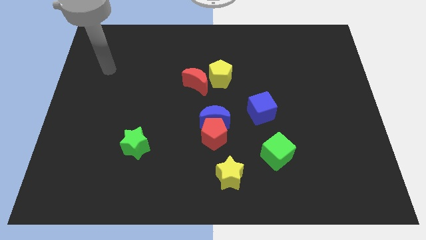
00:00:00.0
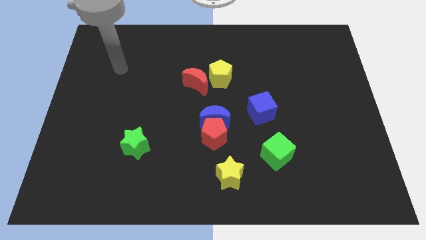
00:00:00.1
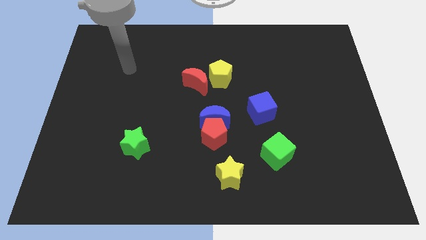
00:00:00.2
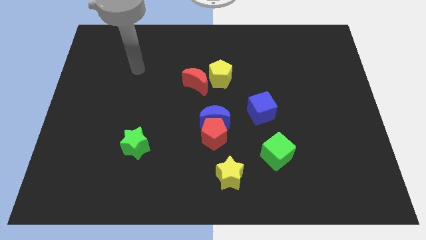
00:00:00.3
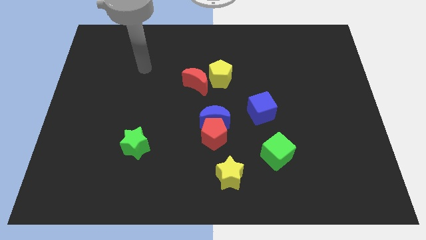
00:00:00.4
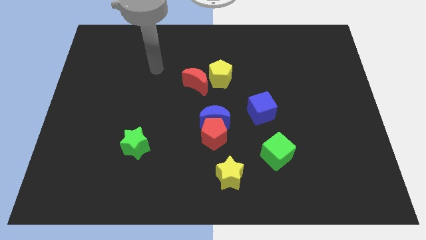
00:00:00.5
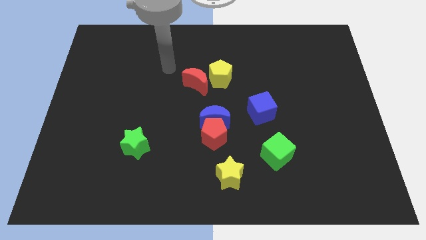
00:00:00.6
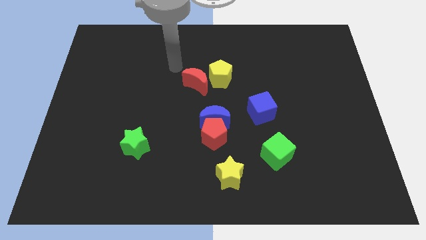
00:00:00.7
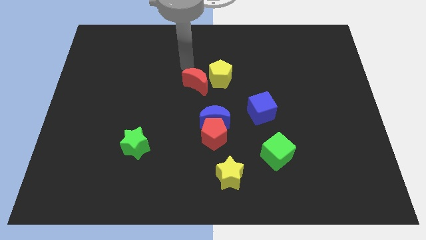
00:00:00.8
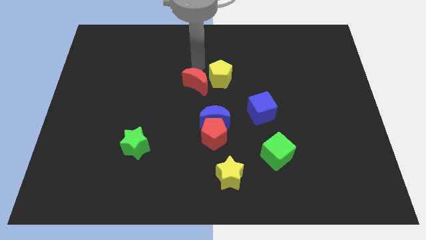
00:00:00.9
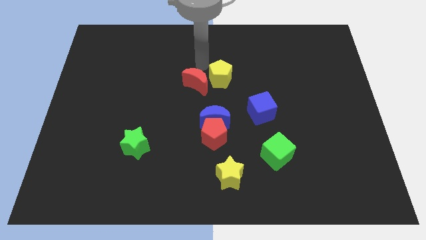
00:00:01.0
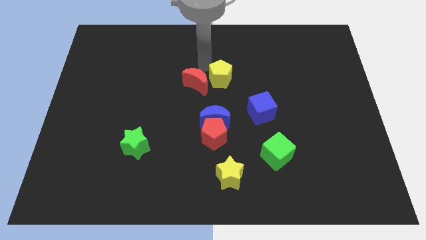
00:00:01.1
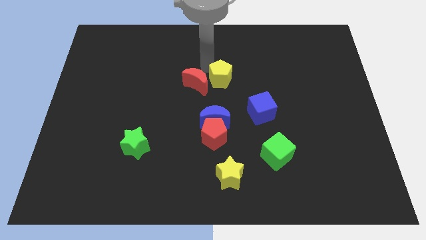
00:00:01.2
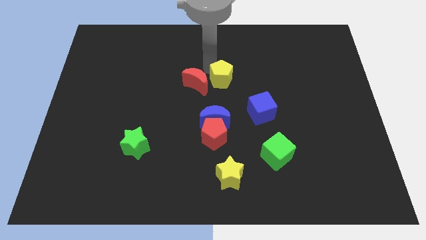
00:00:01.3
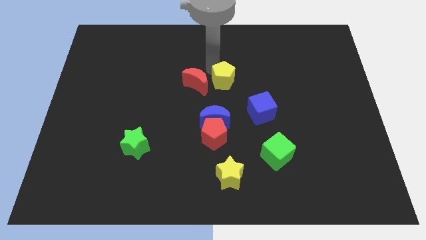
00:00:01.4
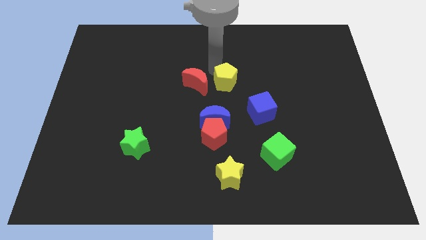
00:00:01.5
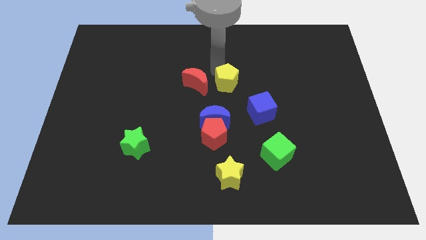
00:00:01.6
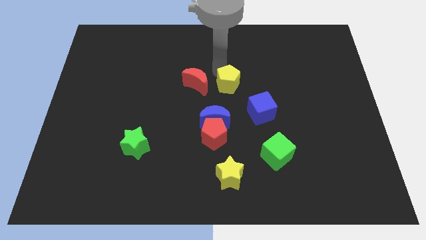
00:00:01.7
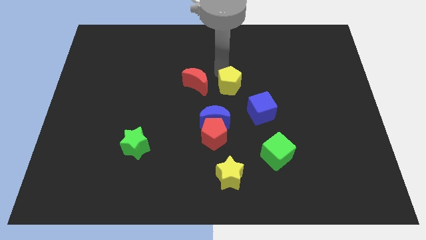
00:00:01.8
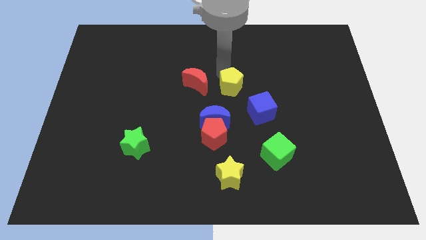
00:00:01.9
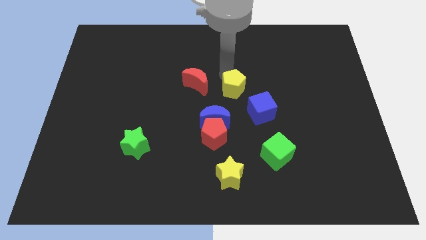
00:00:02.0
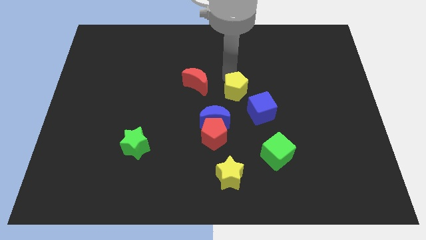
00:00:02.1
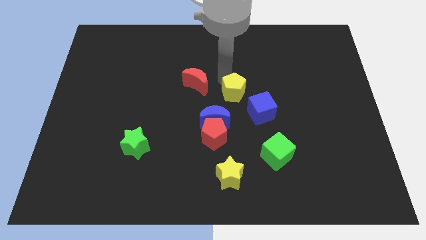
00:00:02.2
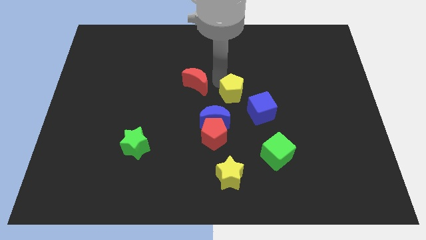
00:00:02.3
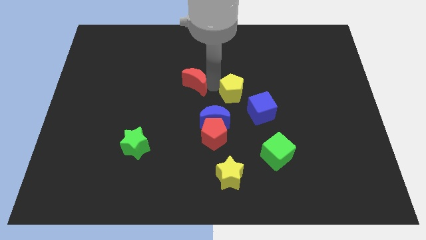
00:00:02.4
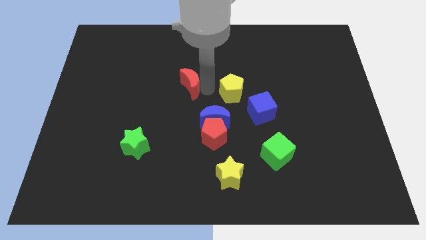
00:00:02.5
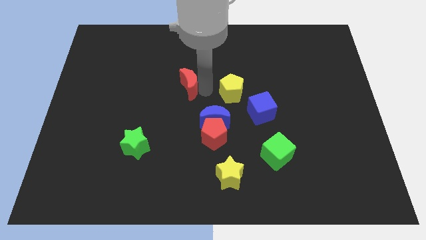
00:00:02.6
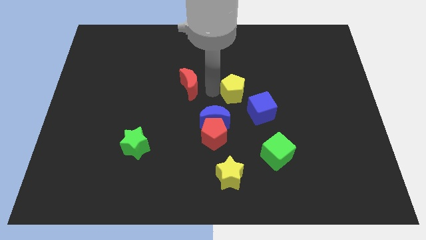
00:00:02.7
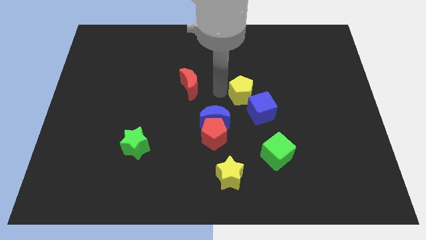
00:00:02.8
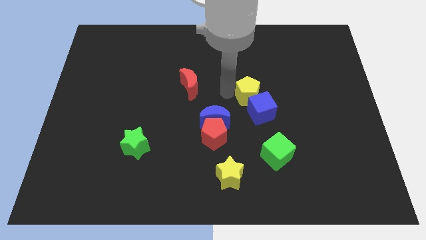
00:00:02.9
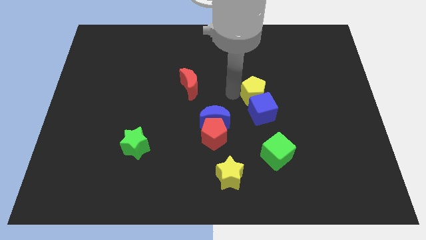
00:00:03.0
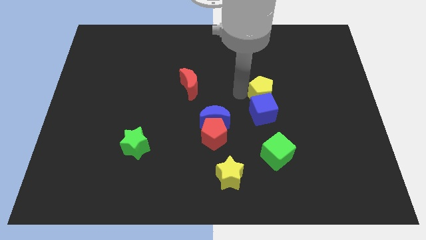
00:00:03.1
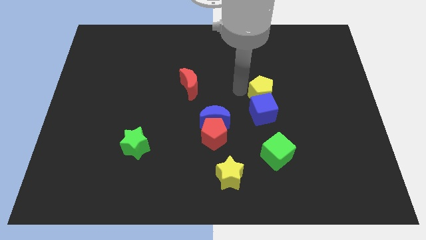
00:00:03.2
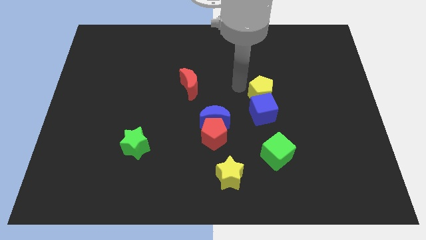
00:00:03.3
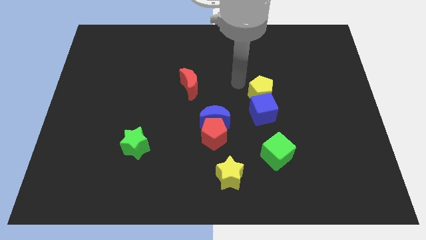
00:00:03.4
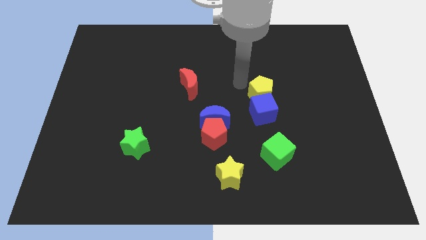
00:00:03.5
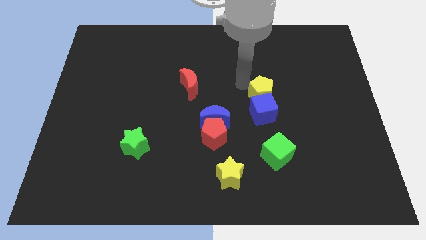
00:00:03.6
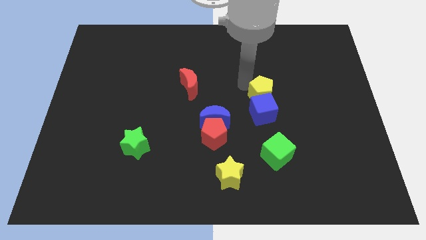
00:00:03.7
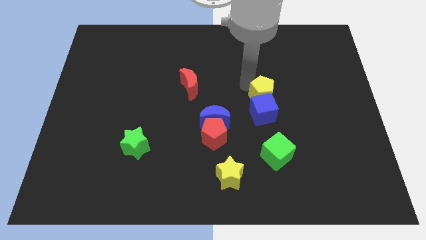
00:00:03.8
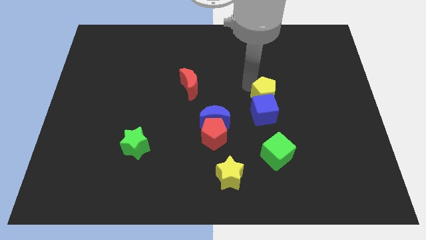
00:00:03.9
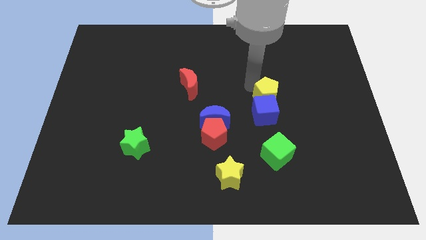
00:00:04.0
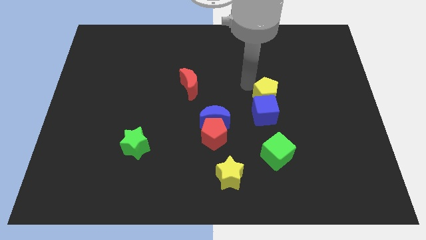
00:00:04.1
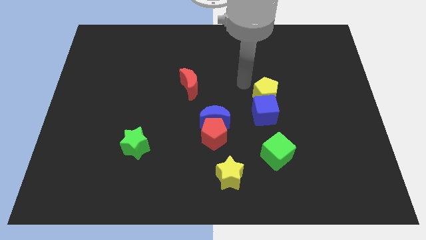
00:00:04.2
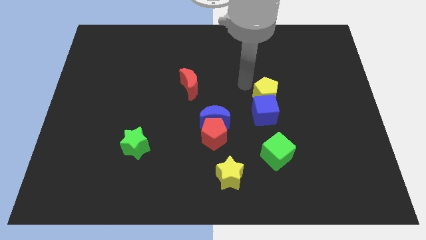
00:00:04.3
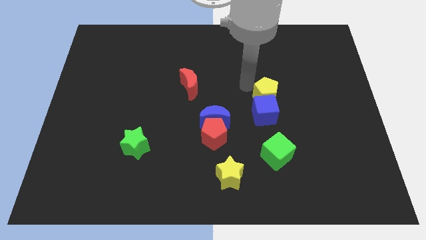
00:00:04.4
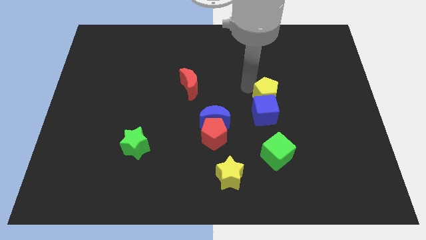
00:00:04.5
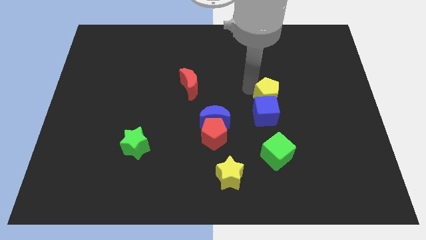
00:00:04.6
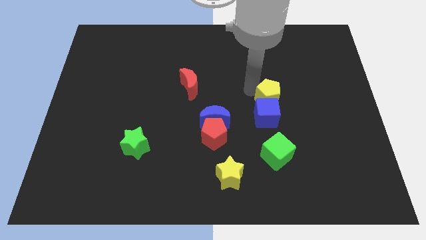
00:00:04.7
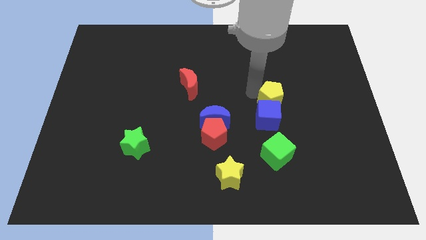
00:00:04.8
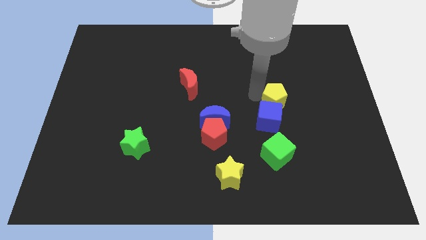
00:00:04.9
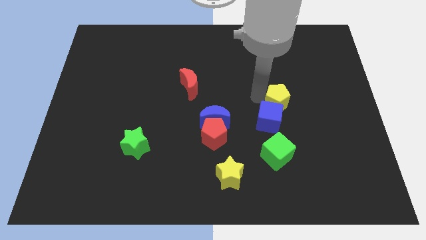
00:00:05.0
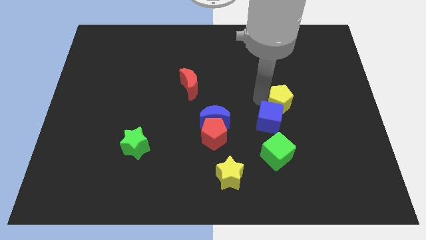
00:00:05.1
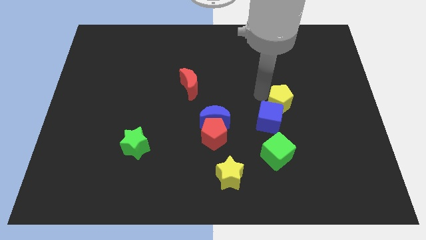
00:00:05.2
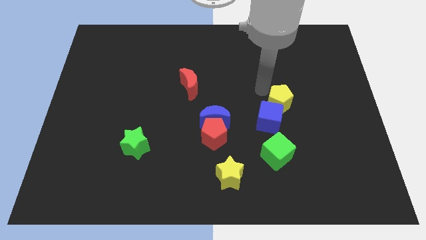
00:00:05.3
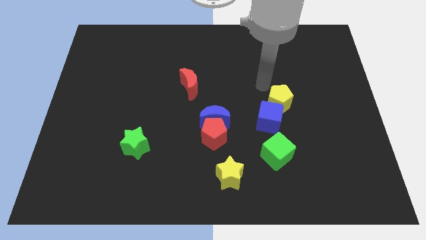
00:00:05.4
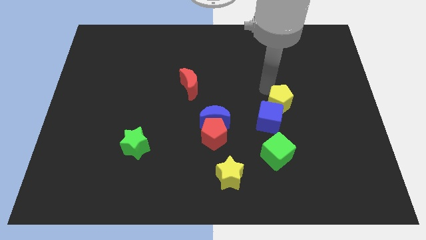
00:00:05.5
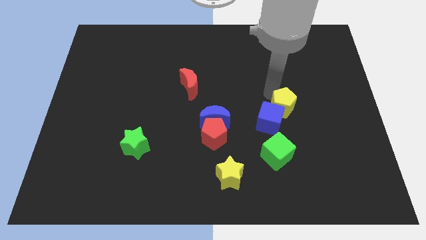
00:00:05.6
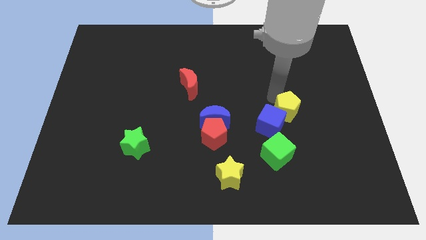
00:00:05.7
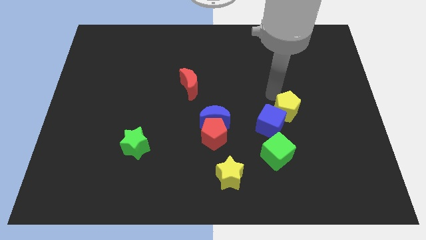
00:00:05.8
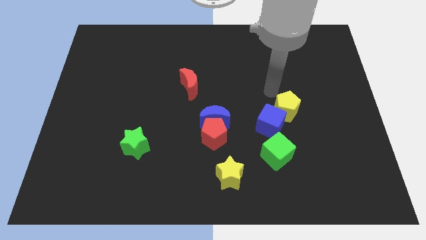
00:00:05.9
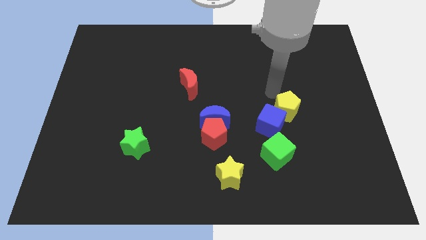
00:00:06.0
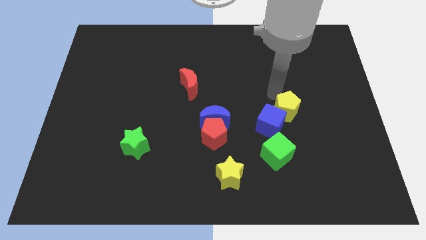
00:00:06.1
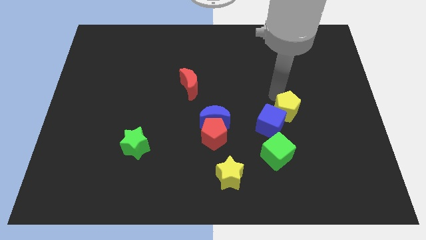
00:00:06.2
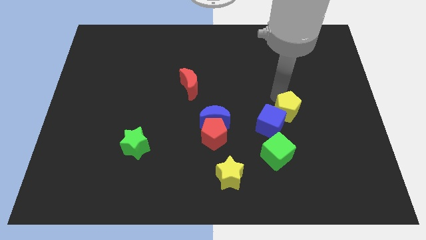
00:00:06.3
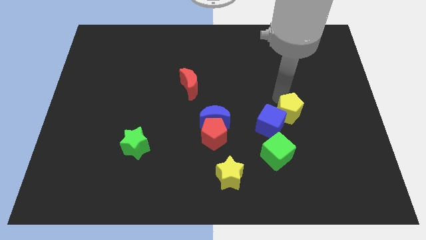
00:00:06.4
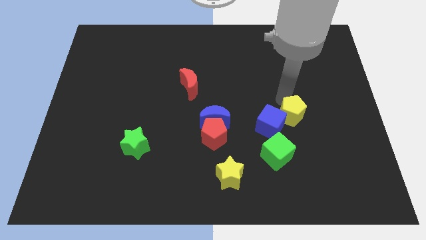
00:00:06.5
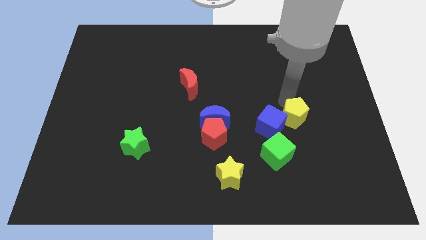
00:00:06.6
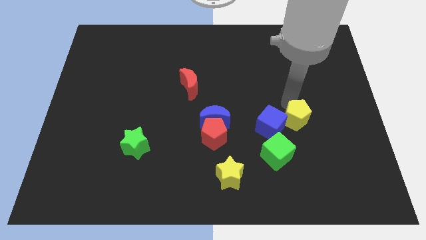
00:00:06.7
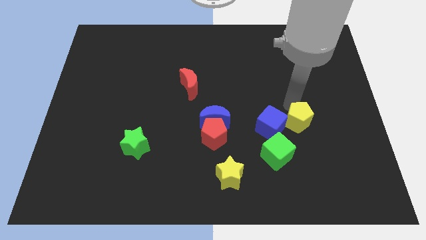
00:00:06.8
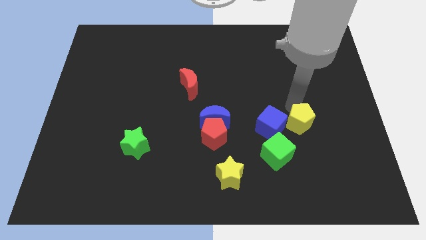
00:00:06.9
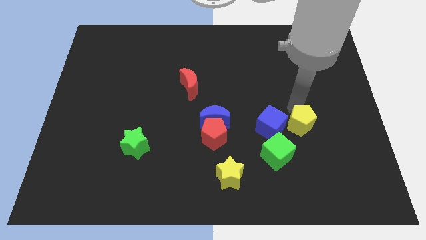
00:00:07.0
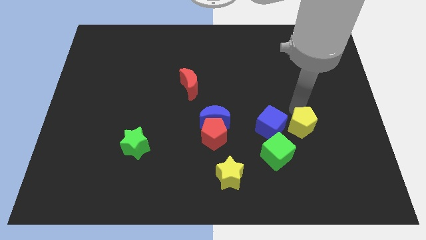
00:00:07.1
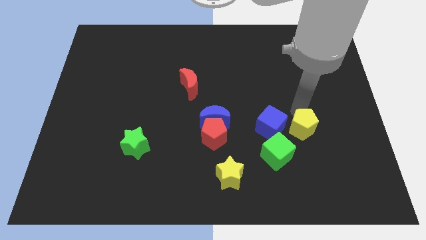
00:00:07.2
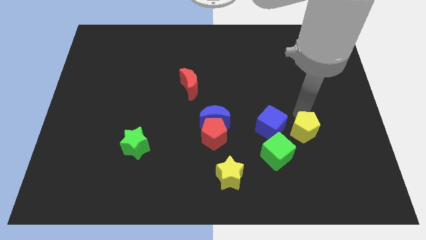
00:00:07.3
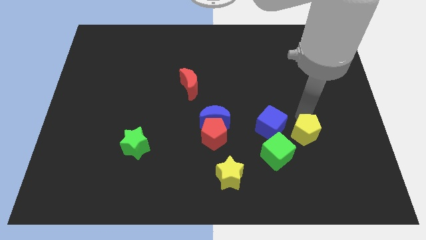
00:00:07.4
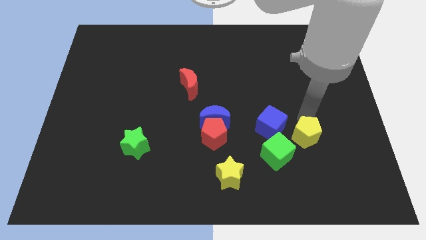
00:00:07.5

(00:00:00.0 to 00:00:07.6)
push the yellow pentagon to the right side of the green cube
